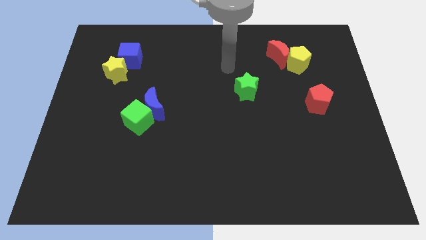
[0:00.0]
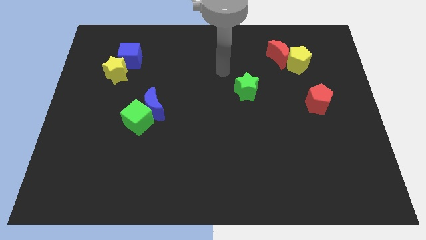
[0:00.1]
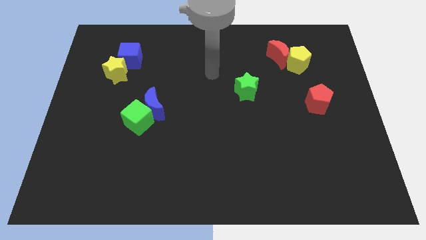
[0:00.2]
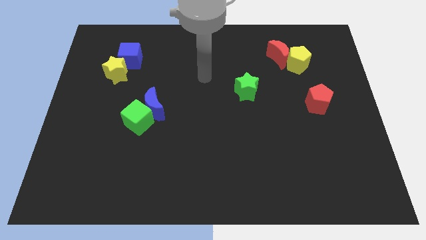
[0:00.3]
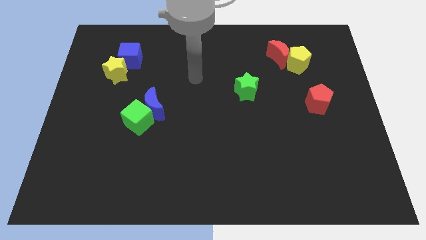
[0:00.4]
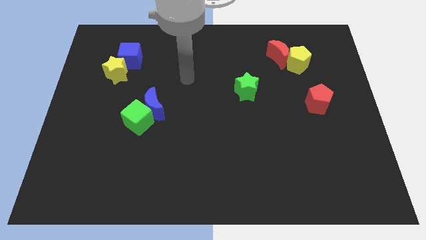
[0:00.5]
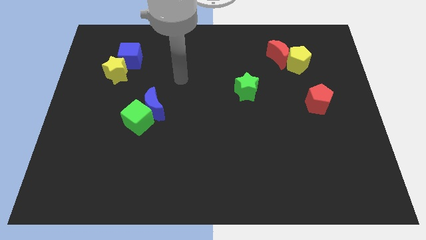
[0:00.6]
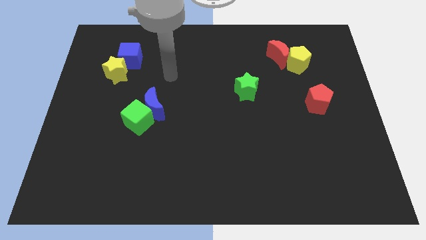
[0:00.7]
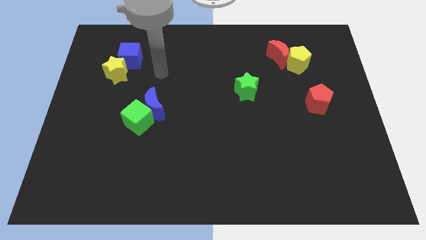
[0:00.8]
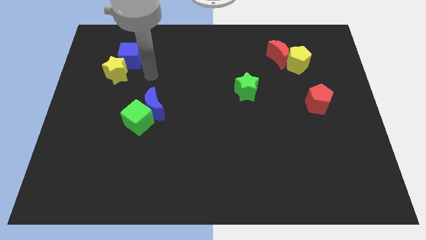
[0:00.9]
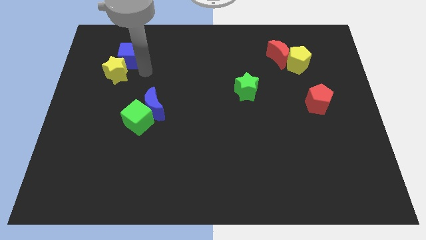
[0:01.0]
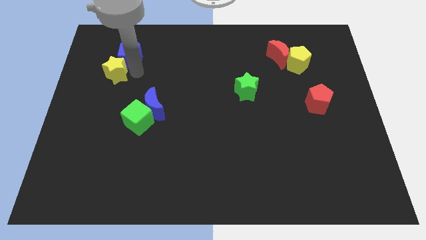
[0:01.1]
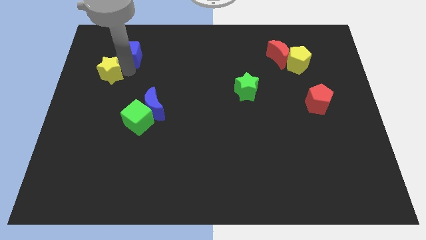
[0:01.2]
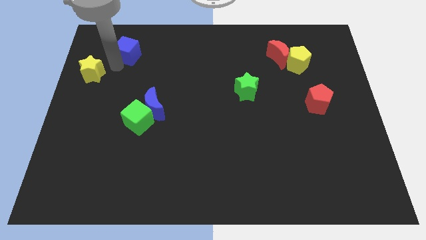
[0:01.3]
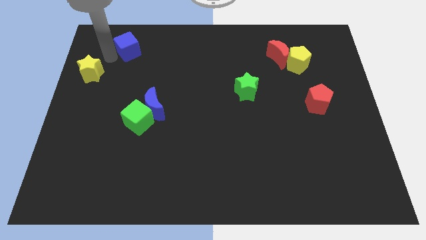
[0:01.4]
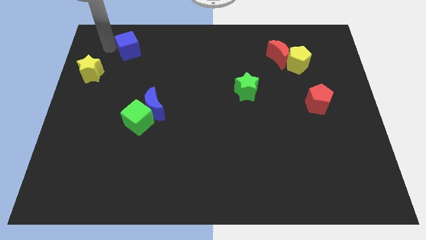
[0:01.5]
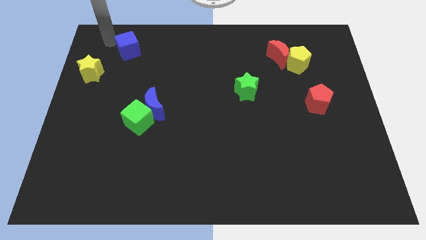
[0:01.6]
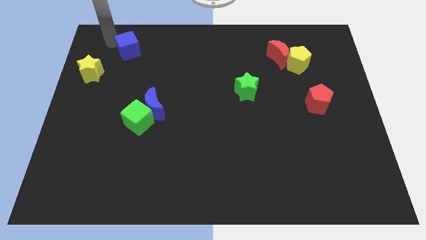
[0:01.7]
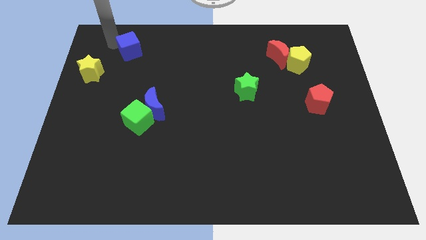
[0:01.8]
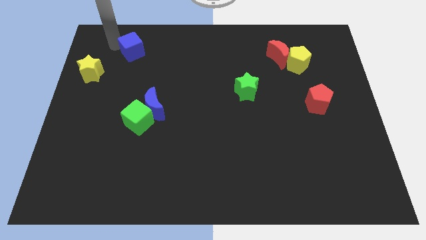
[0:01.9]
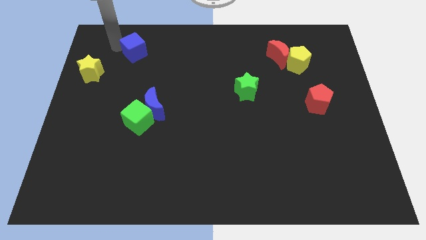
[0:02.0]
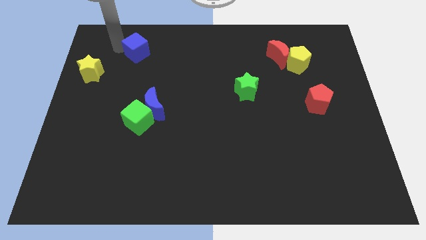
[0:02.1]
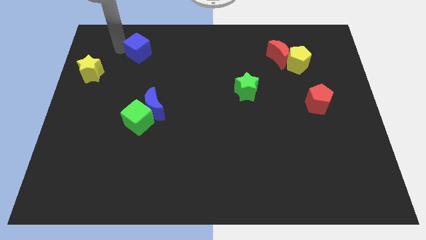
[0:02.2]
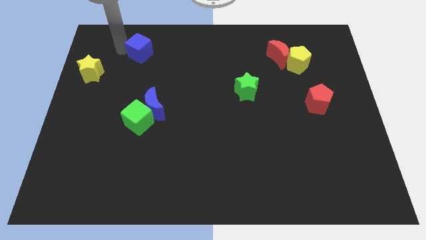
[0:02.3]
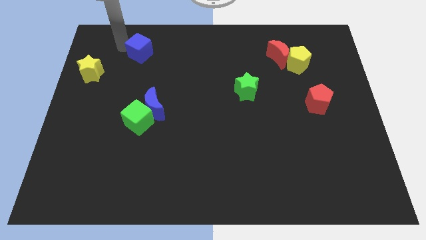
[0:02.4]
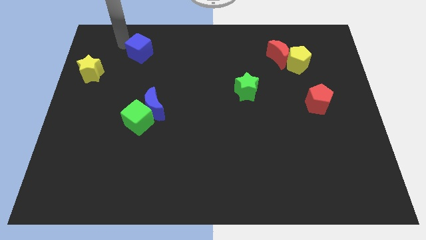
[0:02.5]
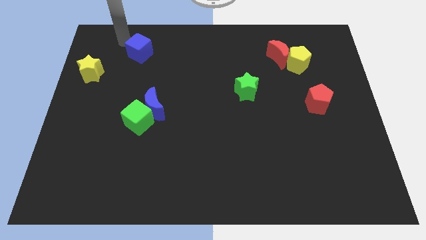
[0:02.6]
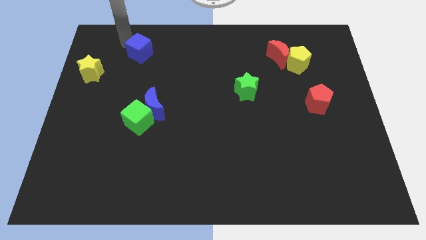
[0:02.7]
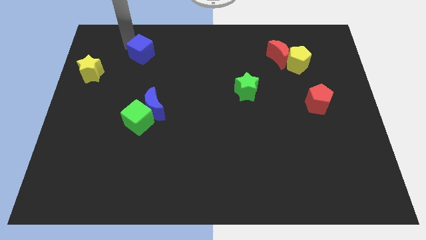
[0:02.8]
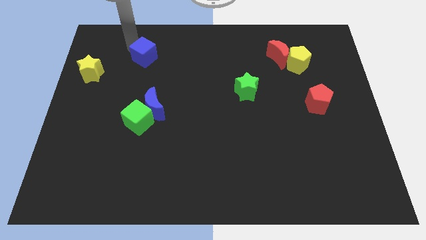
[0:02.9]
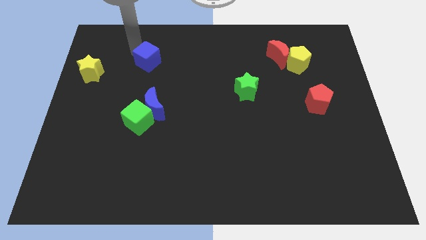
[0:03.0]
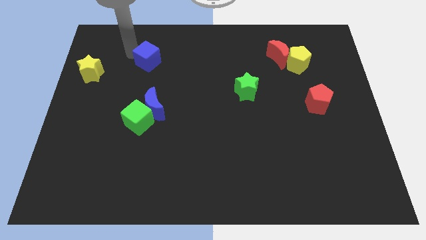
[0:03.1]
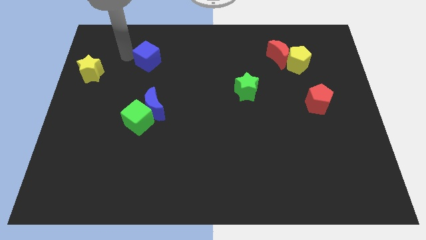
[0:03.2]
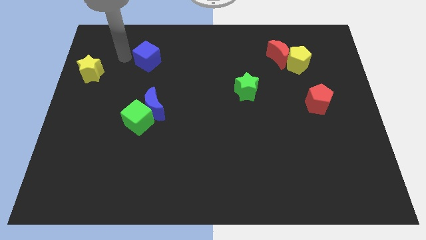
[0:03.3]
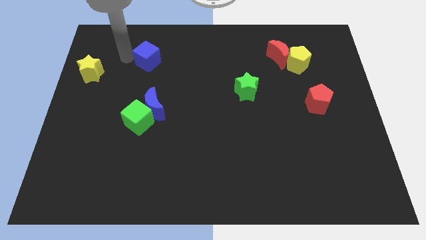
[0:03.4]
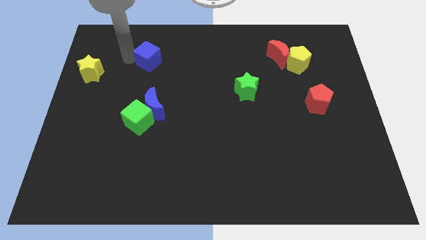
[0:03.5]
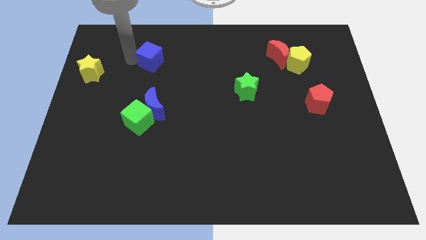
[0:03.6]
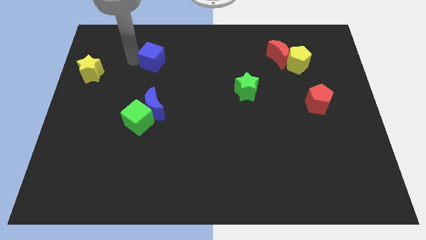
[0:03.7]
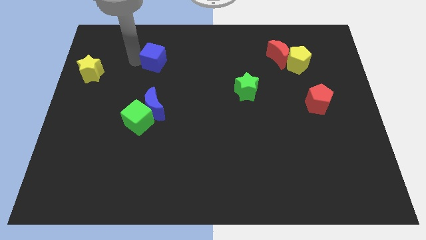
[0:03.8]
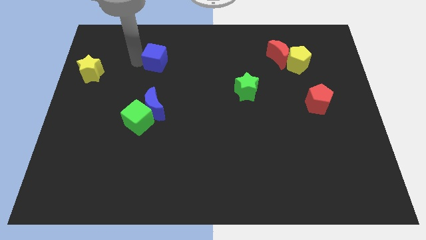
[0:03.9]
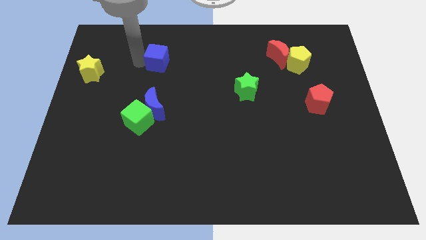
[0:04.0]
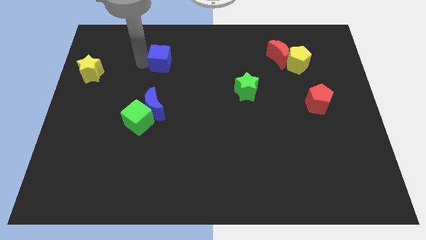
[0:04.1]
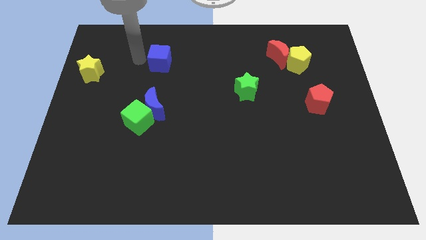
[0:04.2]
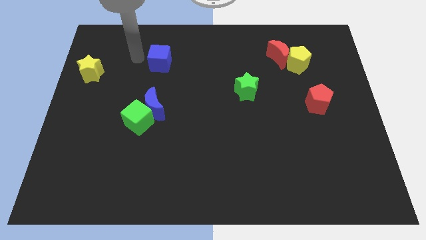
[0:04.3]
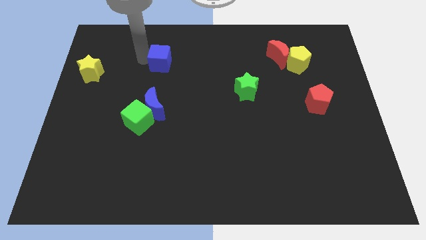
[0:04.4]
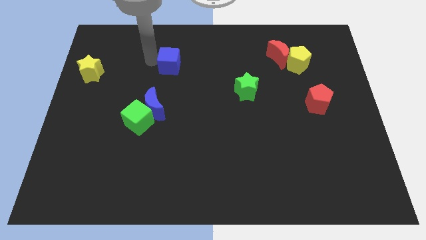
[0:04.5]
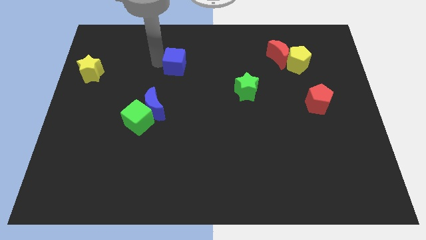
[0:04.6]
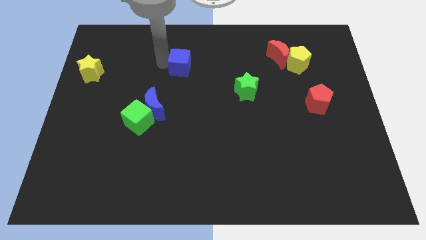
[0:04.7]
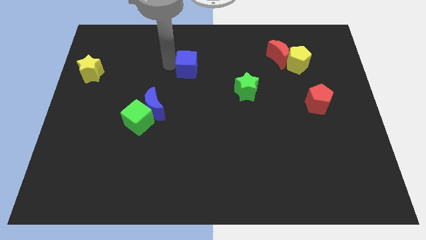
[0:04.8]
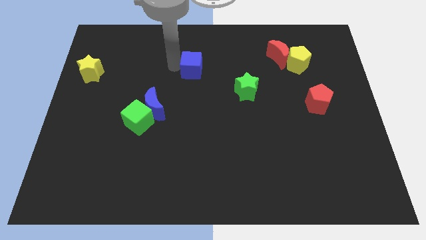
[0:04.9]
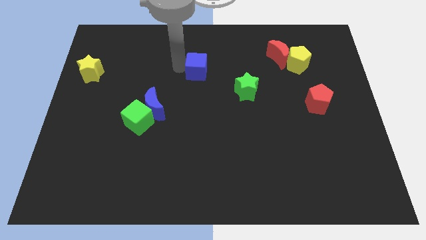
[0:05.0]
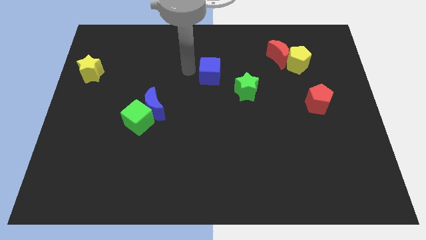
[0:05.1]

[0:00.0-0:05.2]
move the blue cube to the right

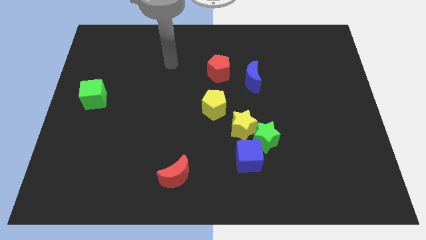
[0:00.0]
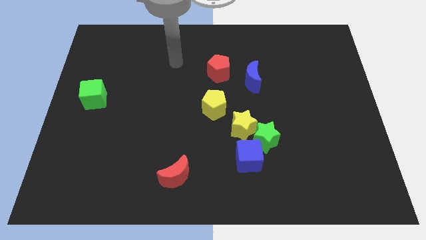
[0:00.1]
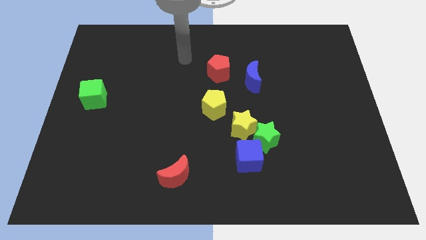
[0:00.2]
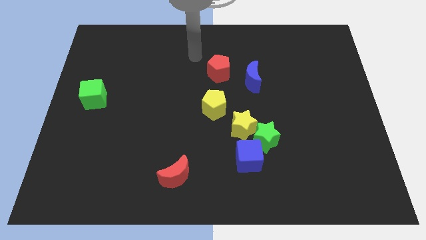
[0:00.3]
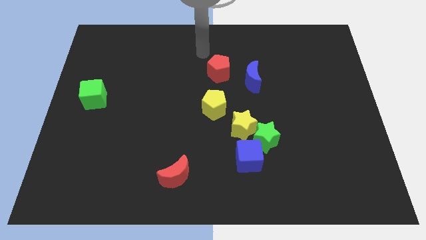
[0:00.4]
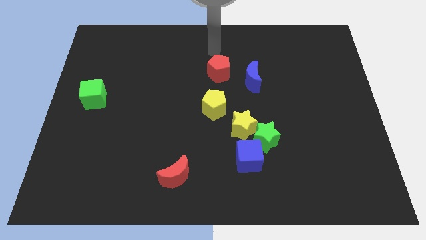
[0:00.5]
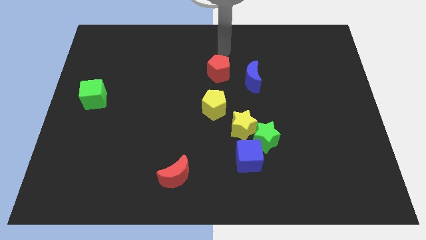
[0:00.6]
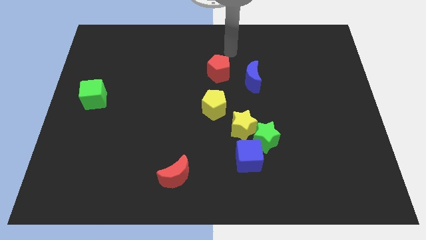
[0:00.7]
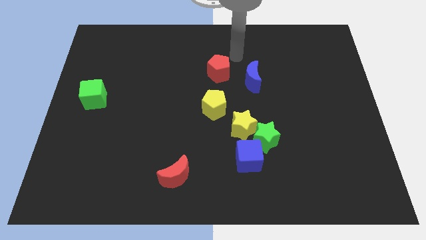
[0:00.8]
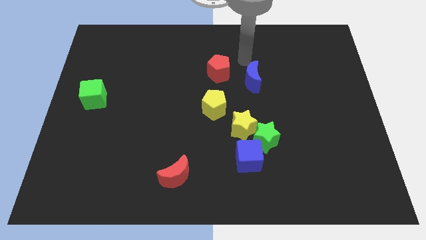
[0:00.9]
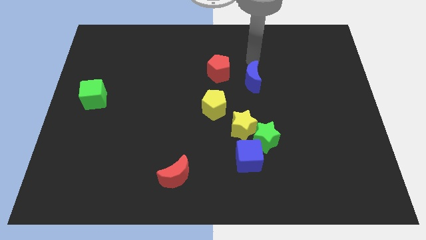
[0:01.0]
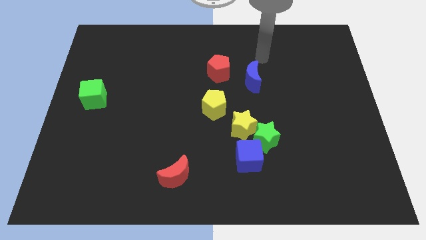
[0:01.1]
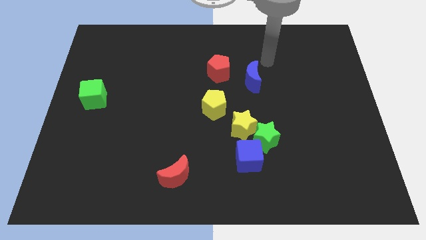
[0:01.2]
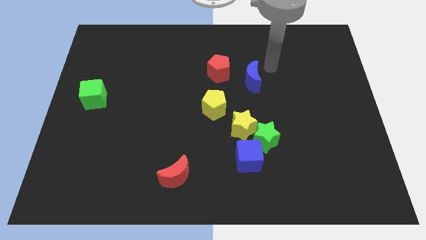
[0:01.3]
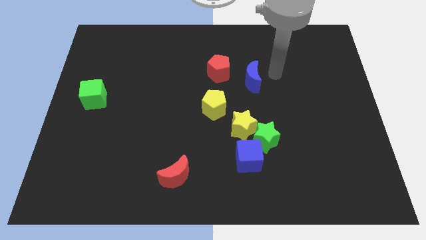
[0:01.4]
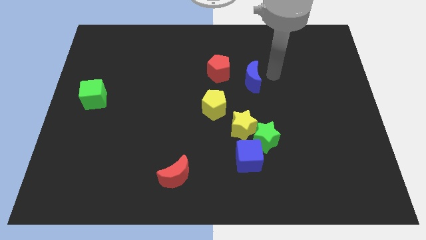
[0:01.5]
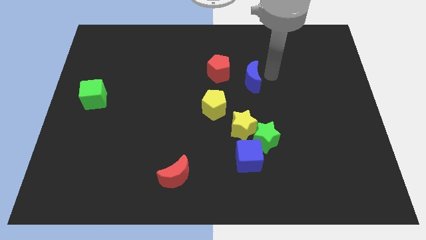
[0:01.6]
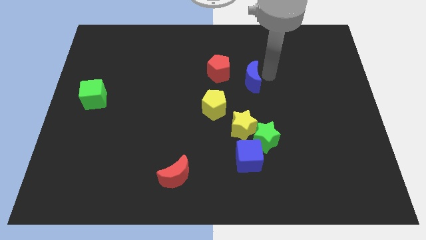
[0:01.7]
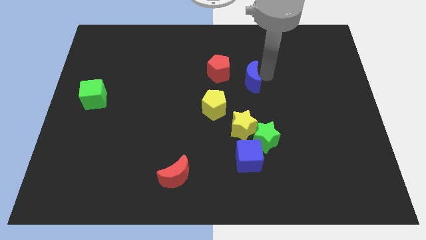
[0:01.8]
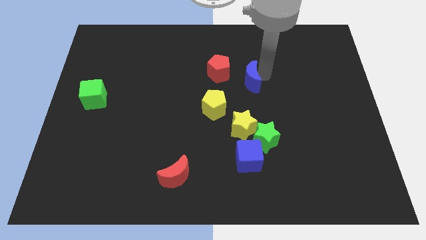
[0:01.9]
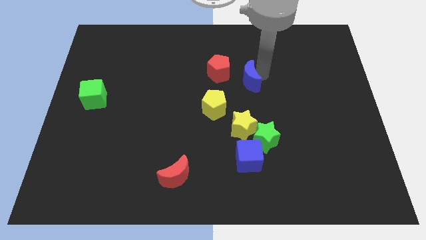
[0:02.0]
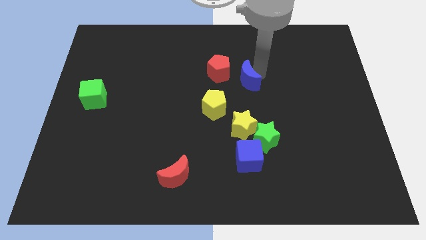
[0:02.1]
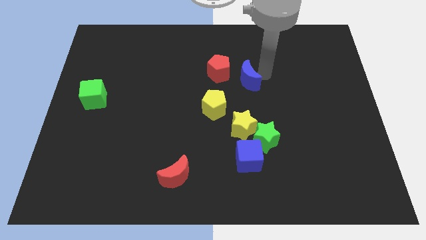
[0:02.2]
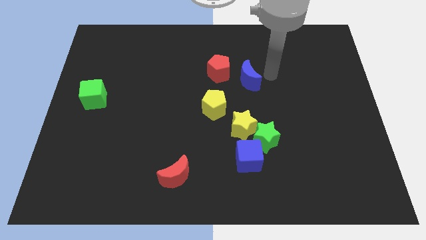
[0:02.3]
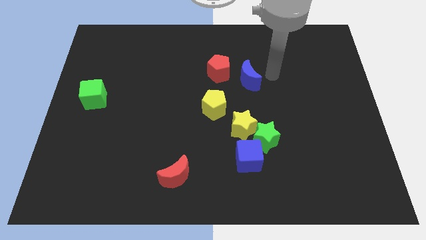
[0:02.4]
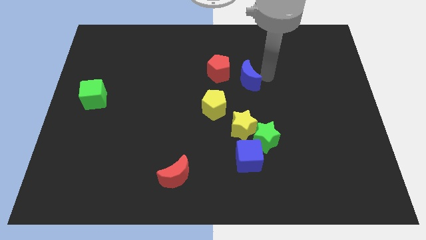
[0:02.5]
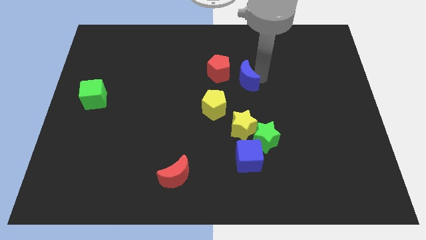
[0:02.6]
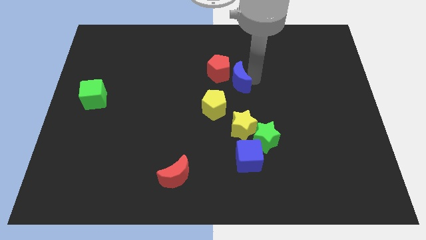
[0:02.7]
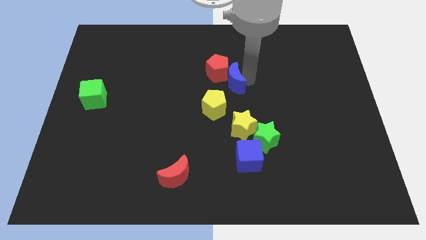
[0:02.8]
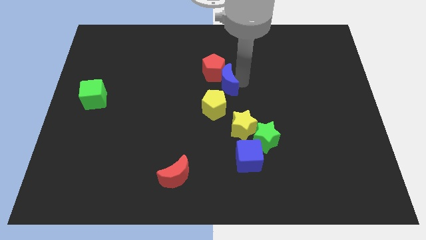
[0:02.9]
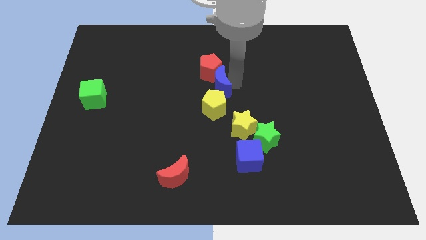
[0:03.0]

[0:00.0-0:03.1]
slightly push the blue moon to the left
